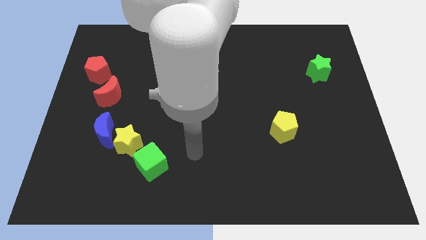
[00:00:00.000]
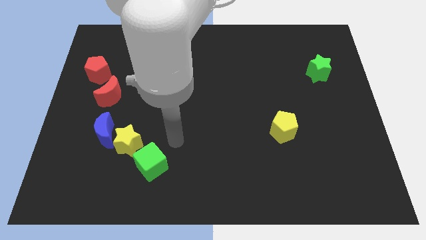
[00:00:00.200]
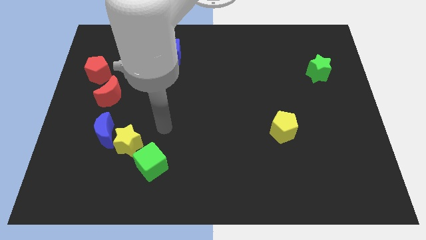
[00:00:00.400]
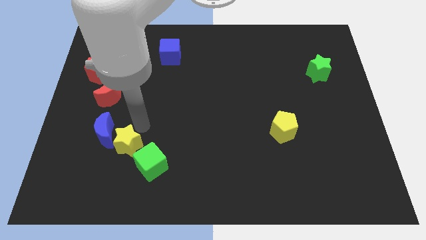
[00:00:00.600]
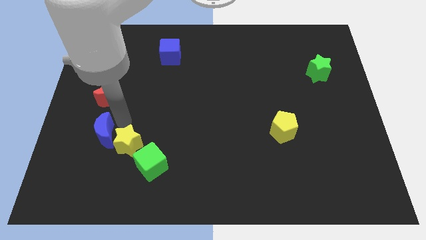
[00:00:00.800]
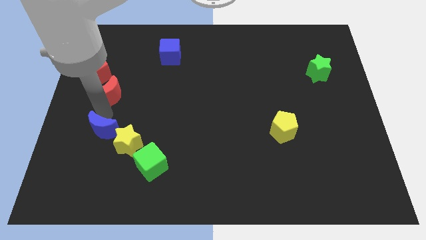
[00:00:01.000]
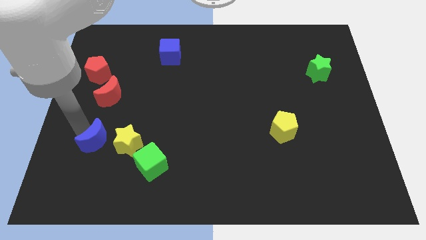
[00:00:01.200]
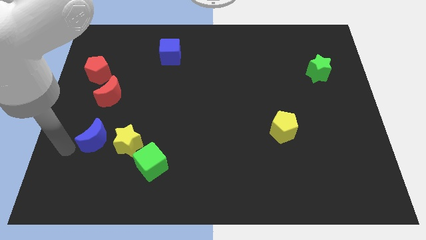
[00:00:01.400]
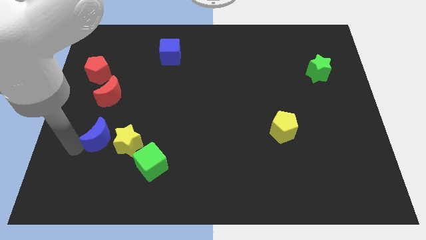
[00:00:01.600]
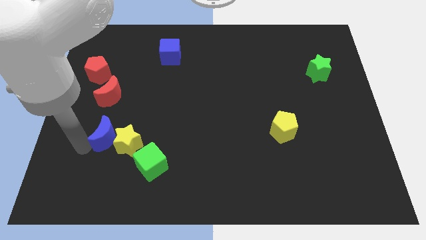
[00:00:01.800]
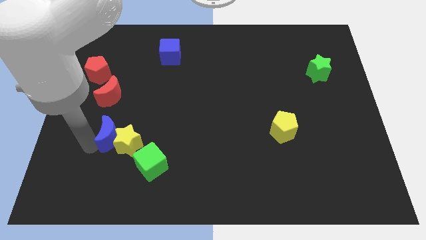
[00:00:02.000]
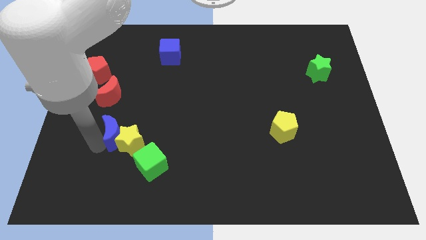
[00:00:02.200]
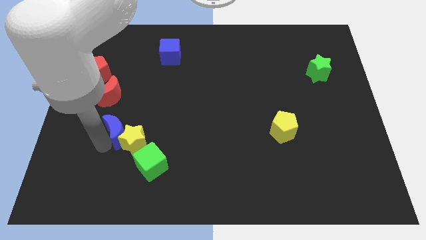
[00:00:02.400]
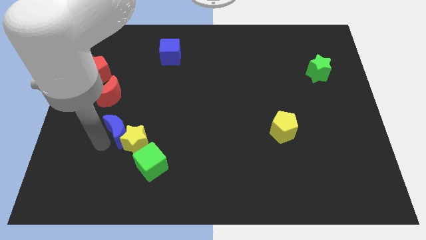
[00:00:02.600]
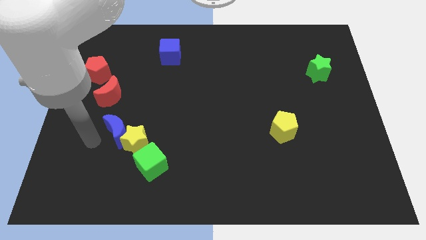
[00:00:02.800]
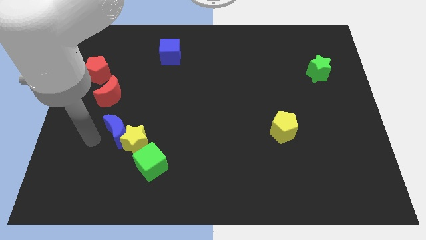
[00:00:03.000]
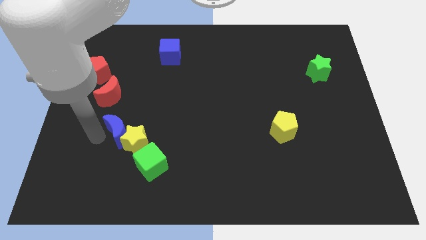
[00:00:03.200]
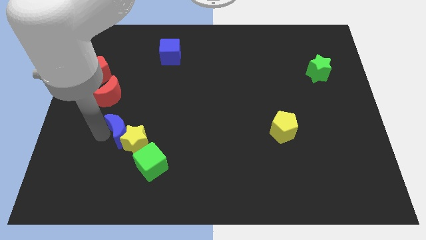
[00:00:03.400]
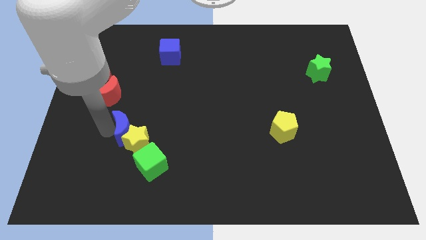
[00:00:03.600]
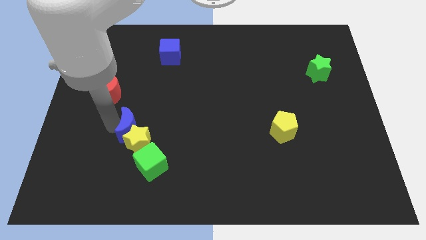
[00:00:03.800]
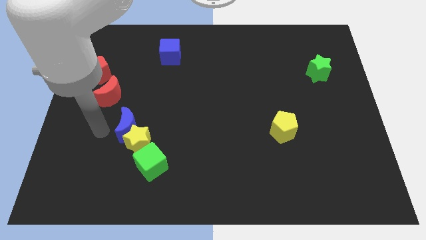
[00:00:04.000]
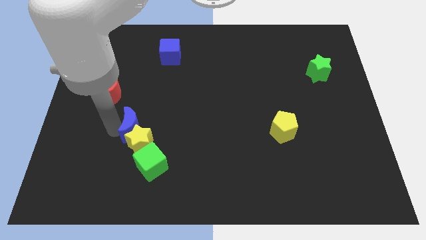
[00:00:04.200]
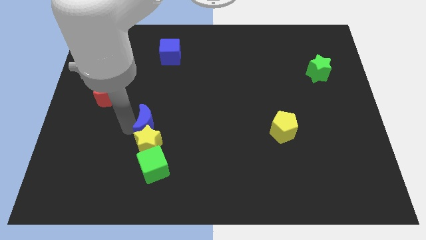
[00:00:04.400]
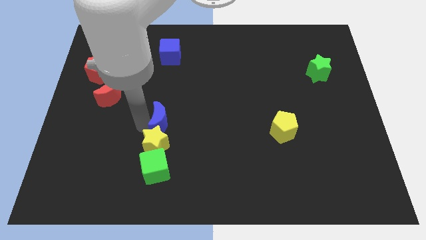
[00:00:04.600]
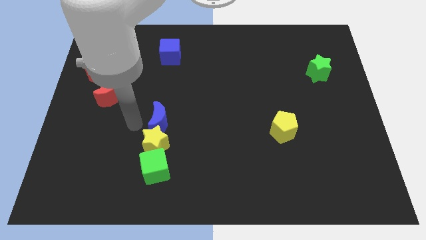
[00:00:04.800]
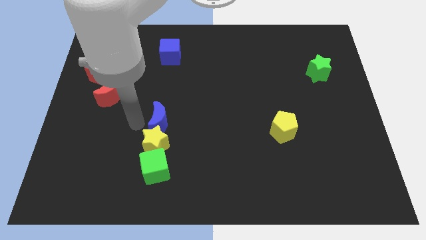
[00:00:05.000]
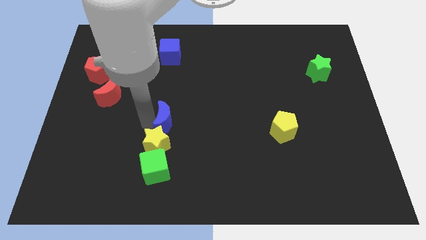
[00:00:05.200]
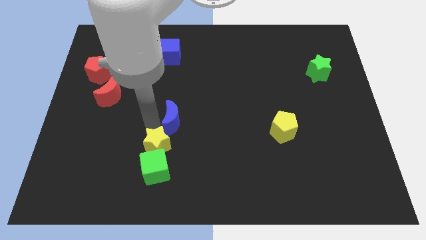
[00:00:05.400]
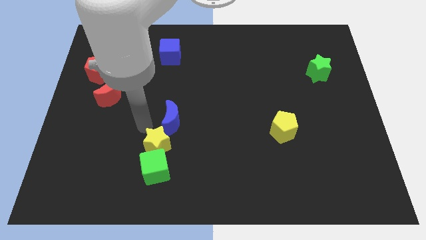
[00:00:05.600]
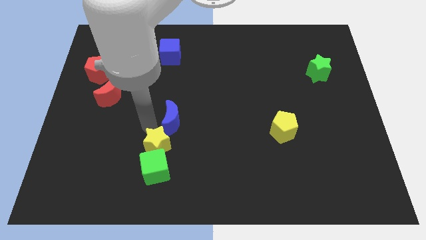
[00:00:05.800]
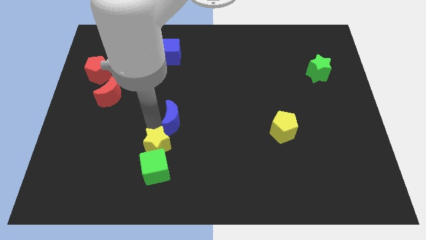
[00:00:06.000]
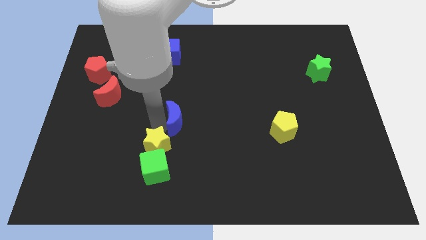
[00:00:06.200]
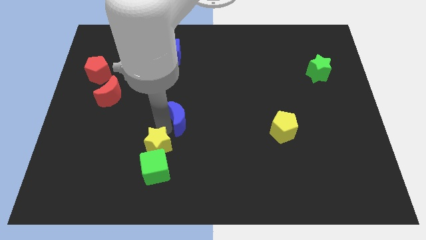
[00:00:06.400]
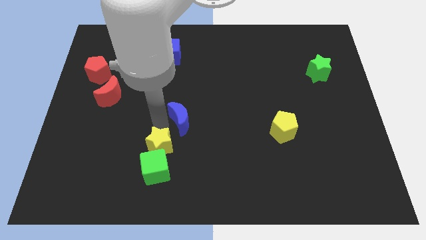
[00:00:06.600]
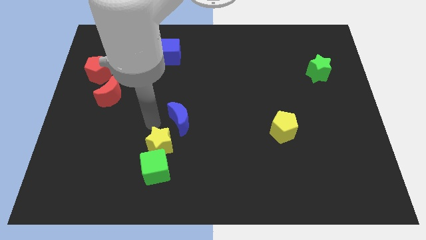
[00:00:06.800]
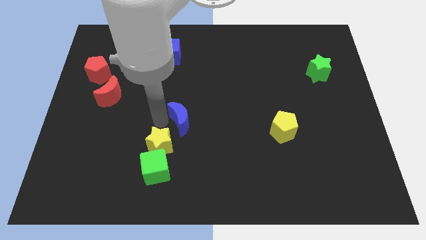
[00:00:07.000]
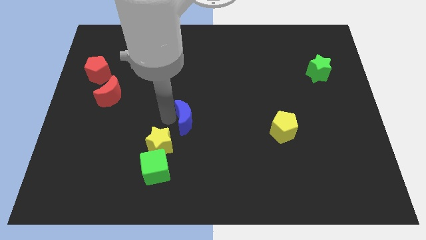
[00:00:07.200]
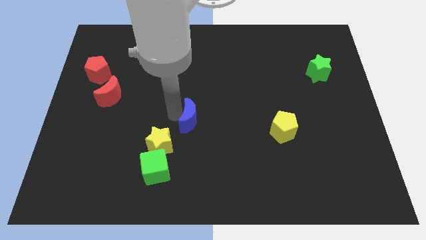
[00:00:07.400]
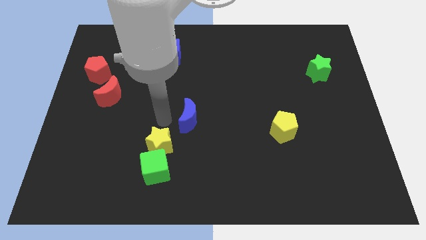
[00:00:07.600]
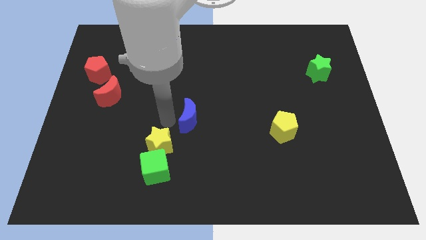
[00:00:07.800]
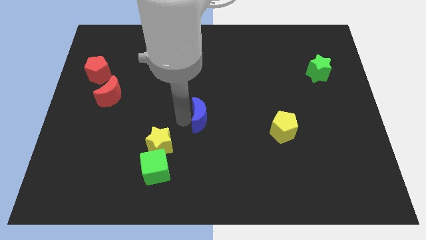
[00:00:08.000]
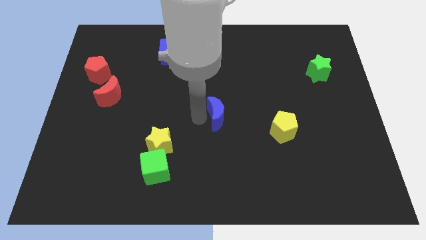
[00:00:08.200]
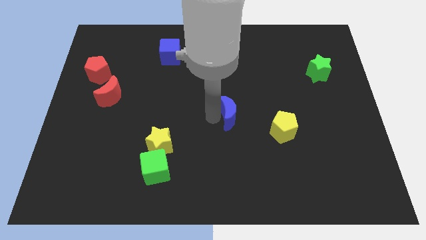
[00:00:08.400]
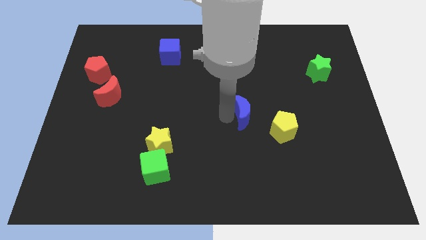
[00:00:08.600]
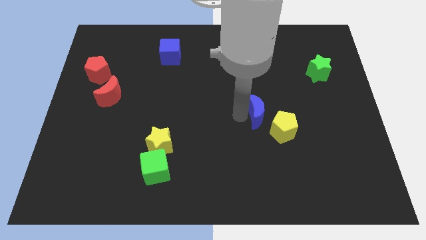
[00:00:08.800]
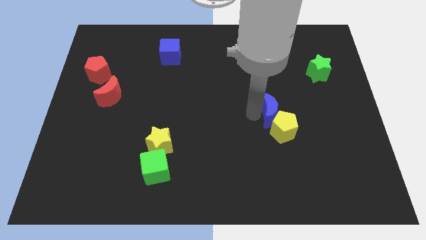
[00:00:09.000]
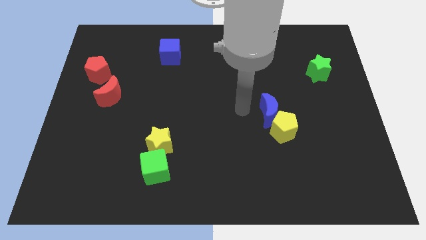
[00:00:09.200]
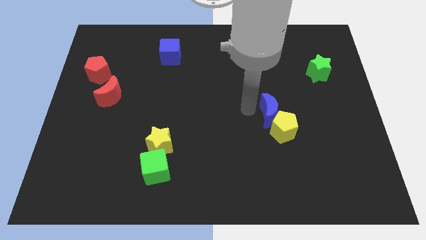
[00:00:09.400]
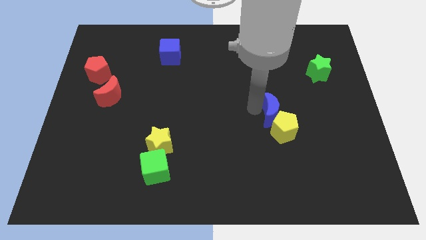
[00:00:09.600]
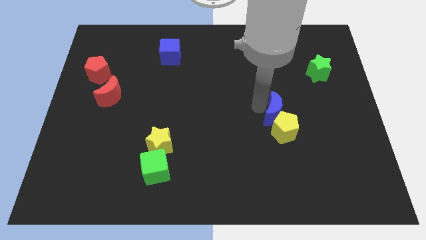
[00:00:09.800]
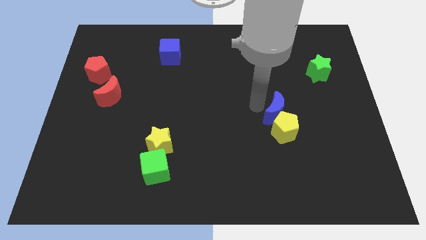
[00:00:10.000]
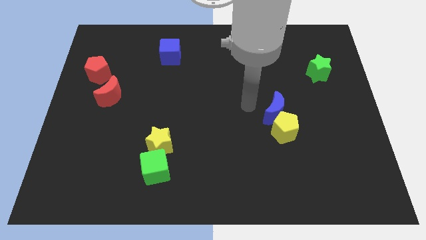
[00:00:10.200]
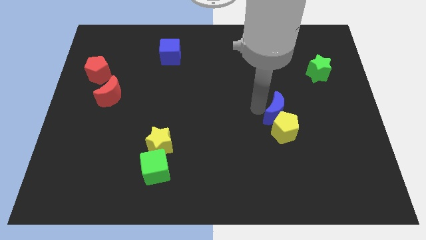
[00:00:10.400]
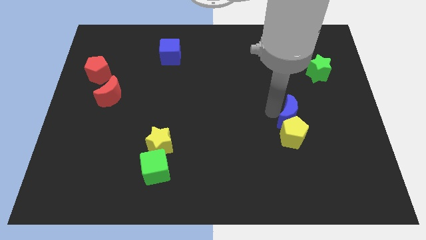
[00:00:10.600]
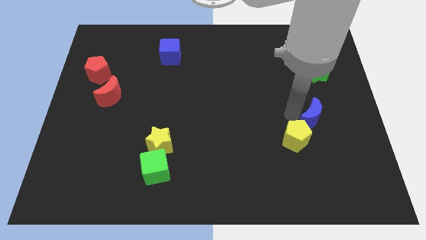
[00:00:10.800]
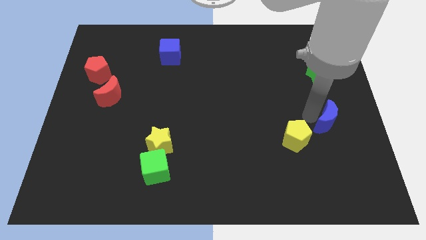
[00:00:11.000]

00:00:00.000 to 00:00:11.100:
slide the blue moon to the right side of the yellow pentagon

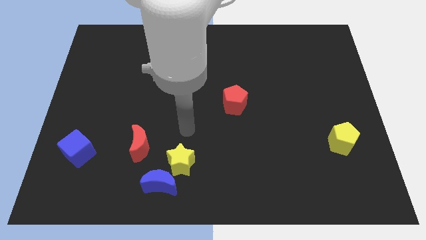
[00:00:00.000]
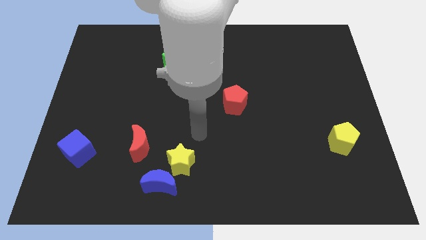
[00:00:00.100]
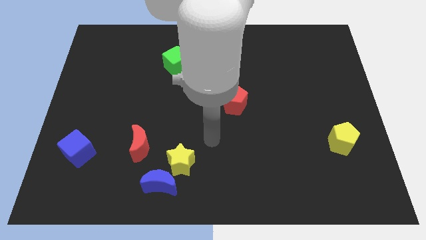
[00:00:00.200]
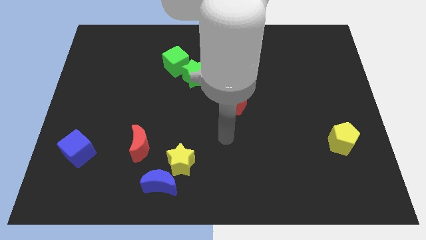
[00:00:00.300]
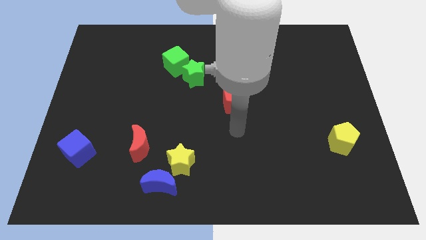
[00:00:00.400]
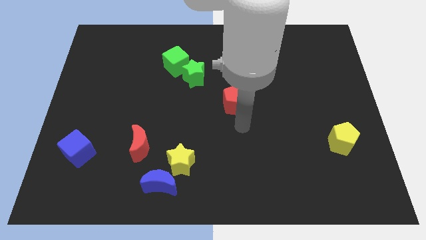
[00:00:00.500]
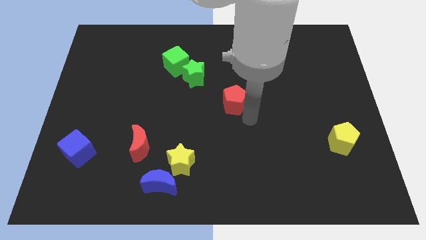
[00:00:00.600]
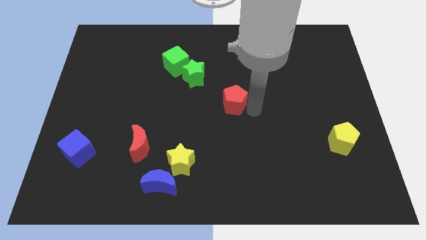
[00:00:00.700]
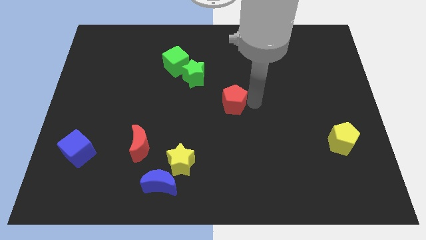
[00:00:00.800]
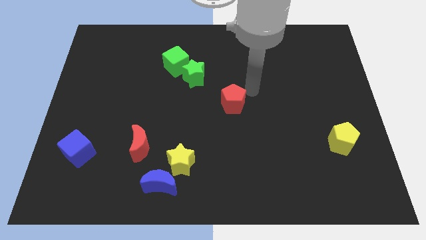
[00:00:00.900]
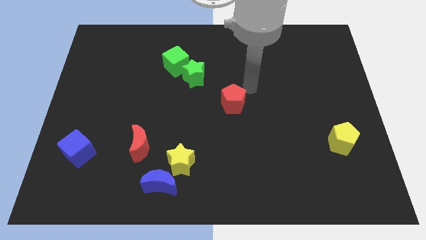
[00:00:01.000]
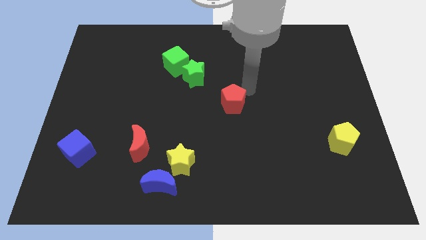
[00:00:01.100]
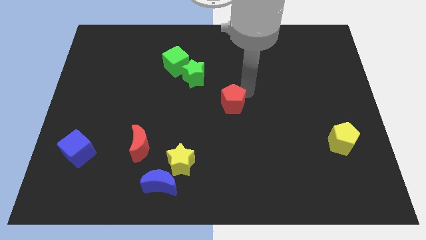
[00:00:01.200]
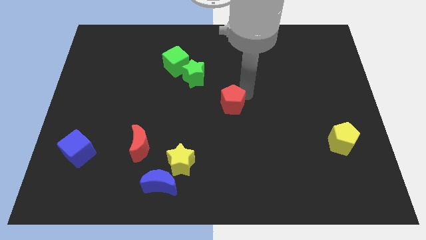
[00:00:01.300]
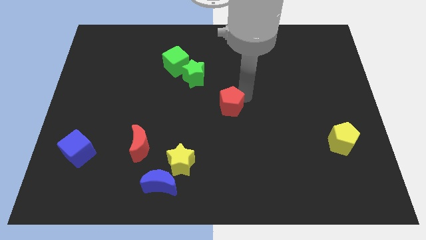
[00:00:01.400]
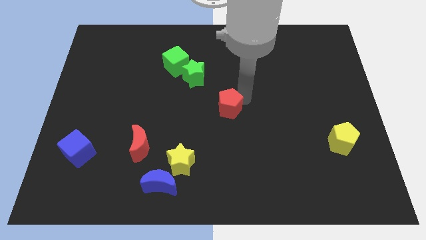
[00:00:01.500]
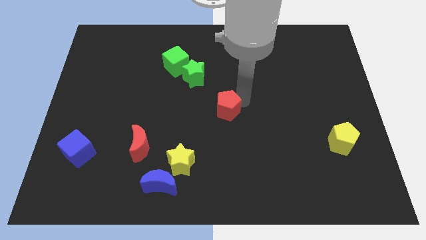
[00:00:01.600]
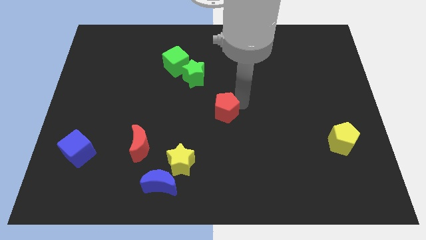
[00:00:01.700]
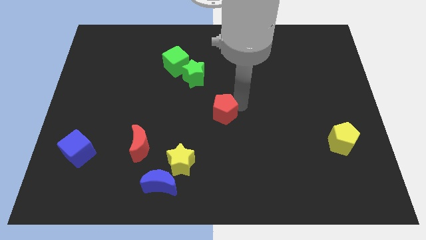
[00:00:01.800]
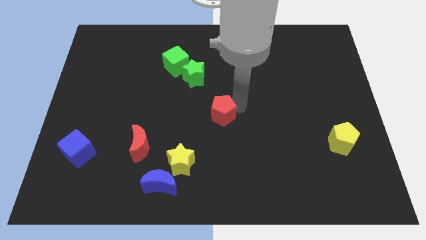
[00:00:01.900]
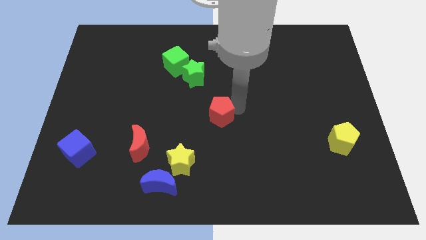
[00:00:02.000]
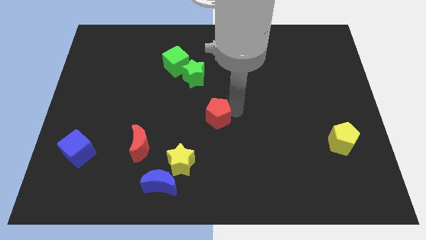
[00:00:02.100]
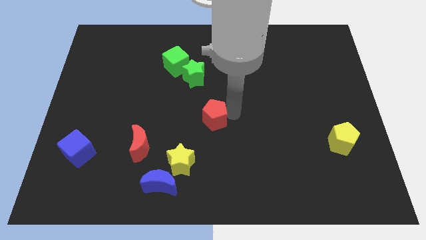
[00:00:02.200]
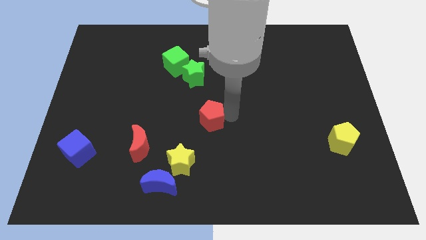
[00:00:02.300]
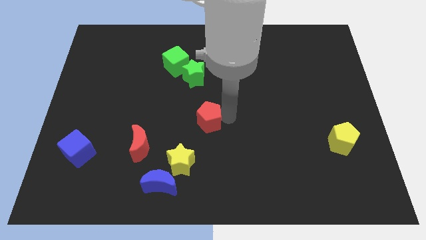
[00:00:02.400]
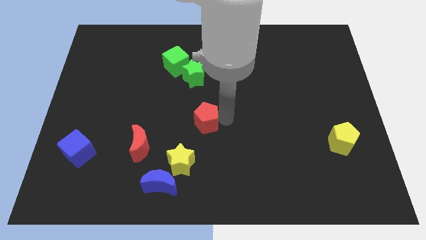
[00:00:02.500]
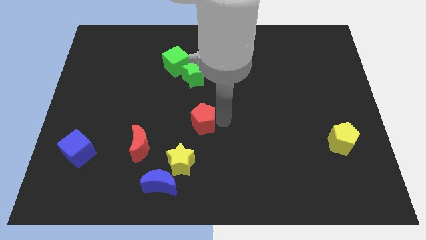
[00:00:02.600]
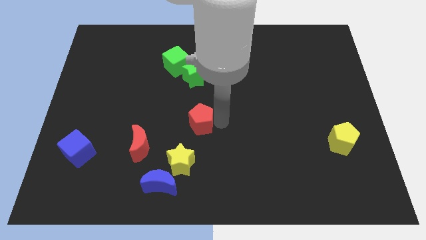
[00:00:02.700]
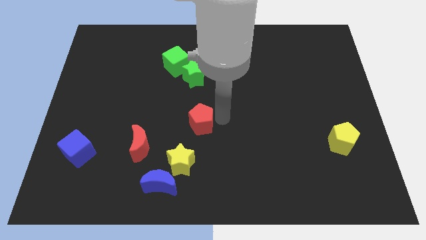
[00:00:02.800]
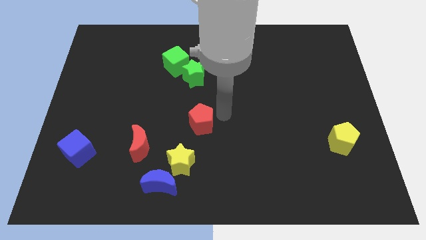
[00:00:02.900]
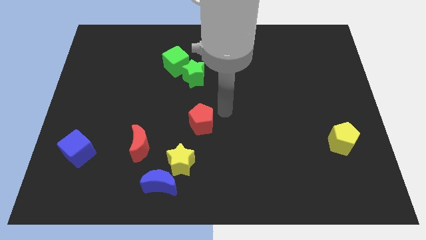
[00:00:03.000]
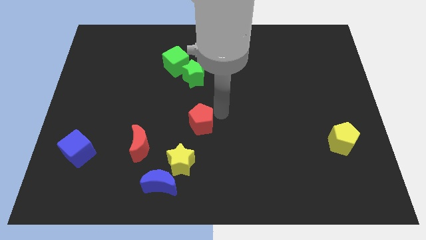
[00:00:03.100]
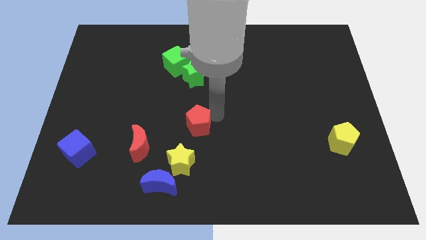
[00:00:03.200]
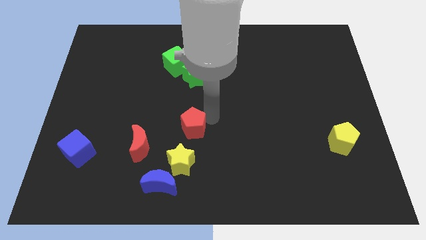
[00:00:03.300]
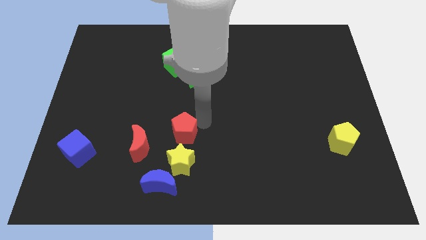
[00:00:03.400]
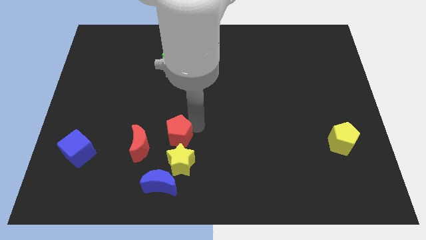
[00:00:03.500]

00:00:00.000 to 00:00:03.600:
slide the red pentagon diagonally up and to the left of the yellow star
